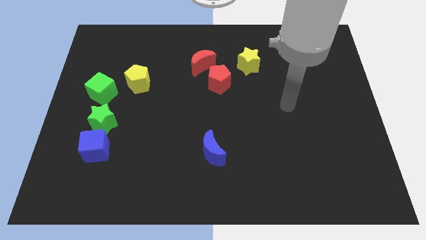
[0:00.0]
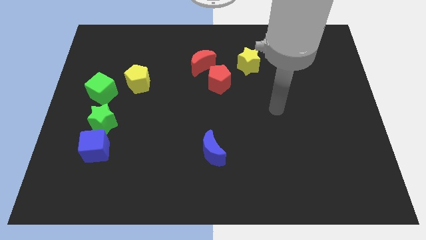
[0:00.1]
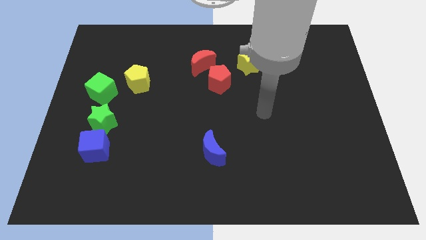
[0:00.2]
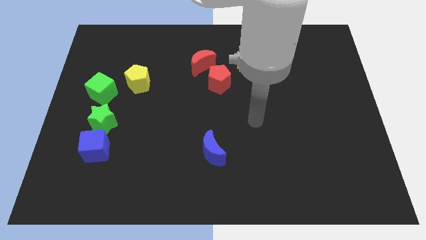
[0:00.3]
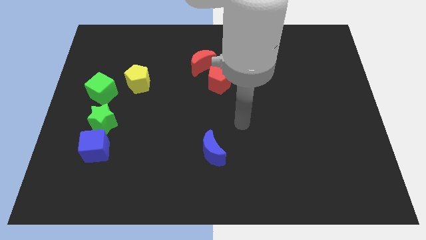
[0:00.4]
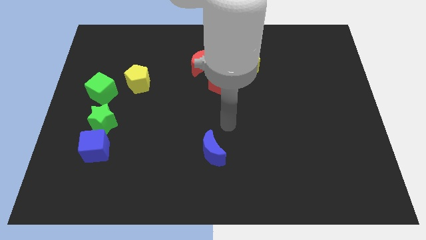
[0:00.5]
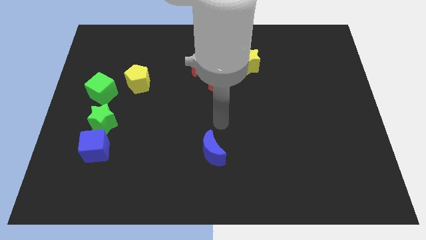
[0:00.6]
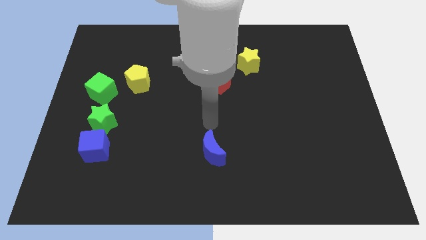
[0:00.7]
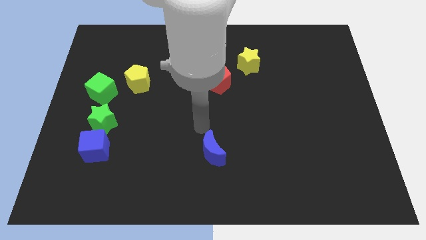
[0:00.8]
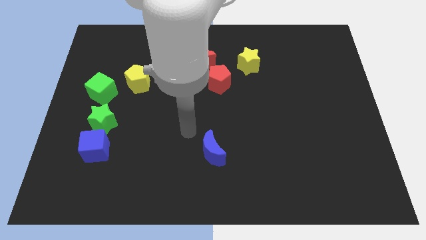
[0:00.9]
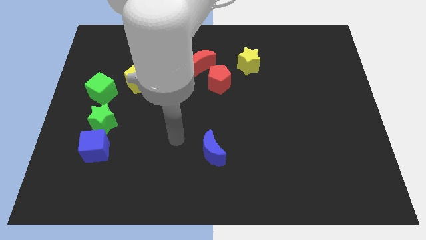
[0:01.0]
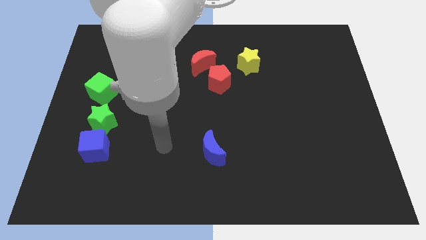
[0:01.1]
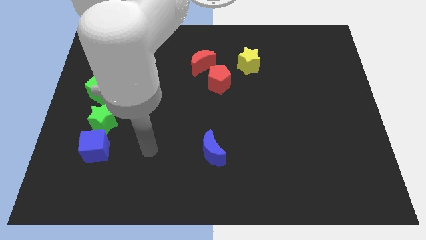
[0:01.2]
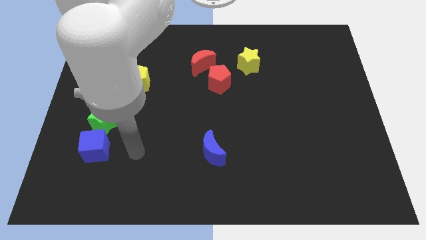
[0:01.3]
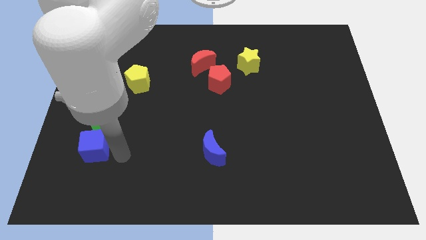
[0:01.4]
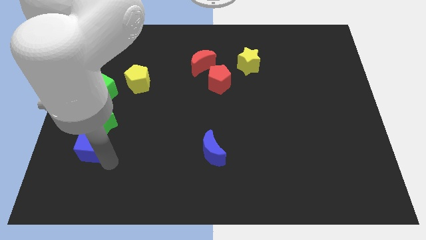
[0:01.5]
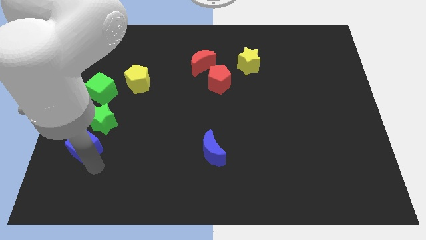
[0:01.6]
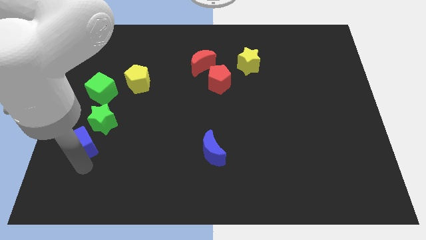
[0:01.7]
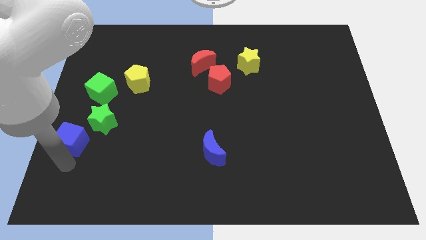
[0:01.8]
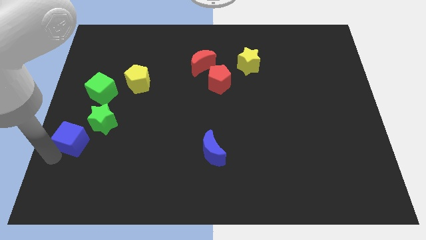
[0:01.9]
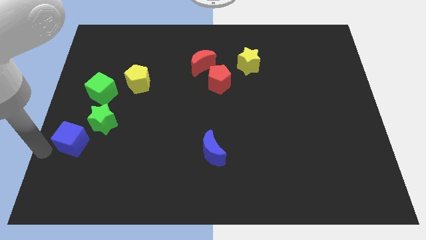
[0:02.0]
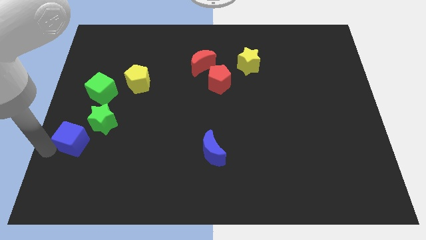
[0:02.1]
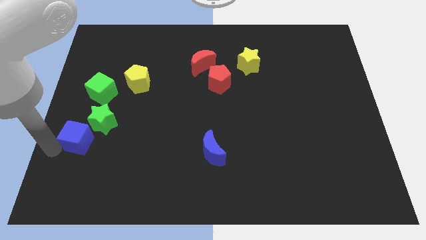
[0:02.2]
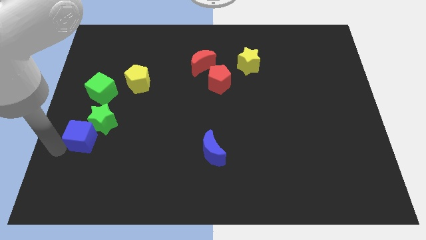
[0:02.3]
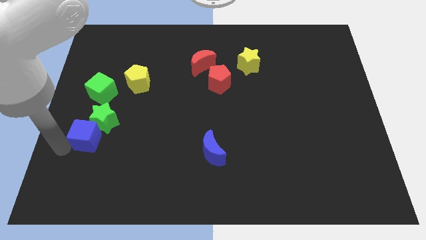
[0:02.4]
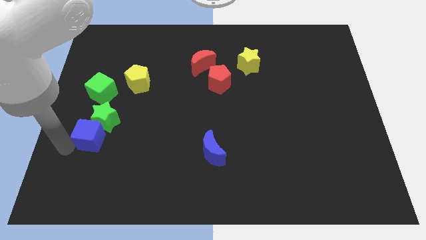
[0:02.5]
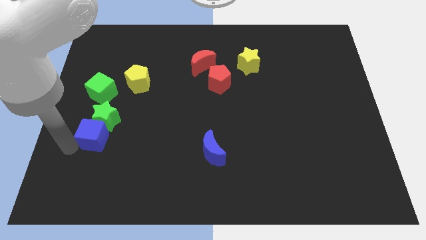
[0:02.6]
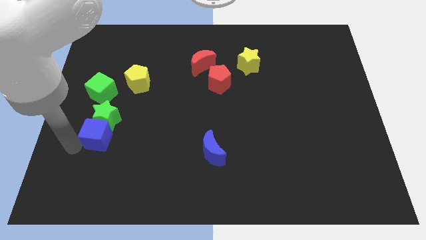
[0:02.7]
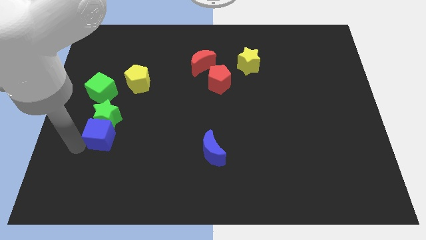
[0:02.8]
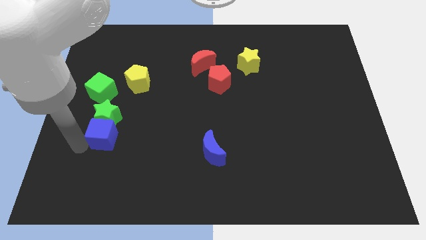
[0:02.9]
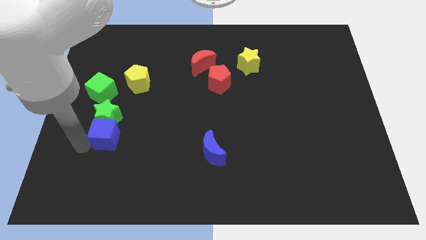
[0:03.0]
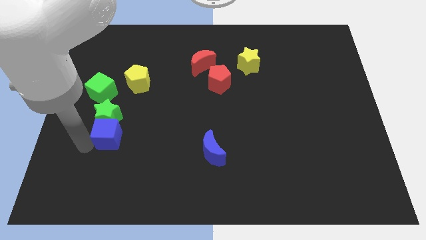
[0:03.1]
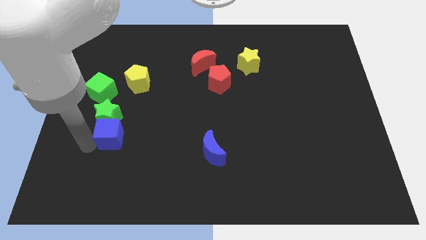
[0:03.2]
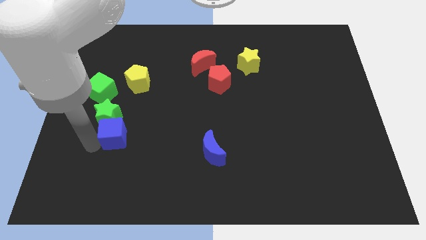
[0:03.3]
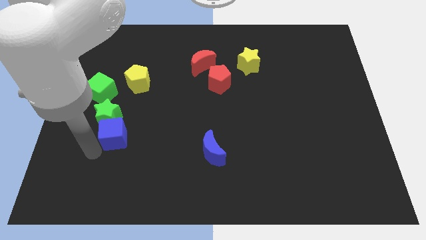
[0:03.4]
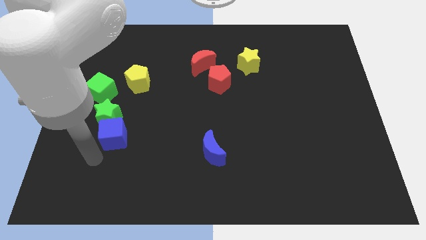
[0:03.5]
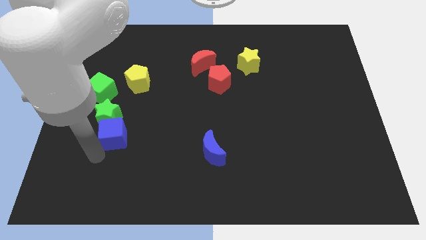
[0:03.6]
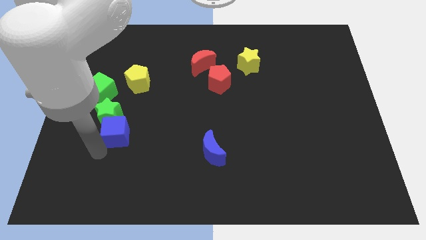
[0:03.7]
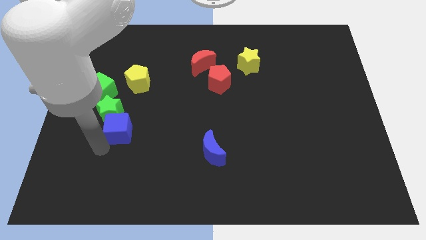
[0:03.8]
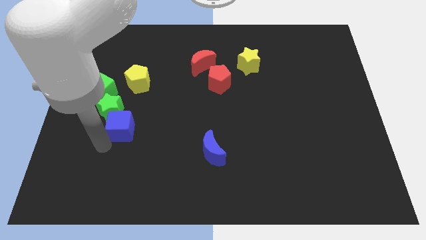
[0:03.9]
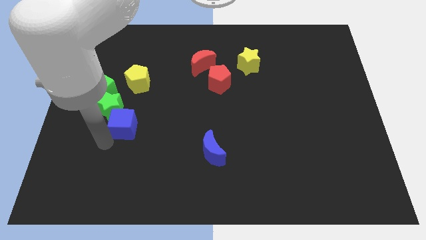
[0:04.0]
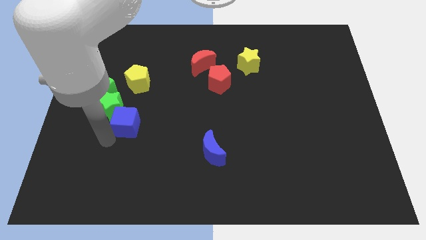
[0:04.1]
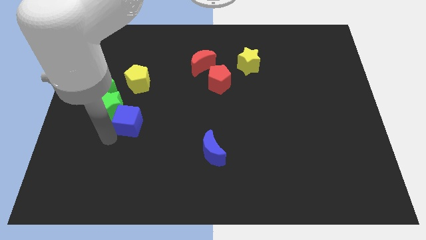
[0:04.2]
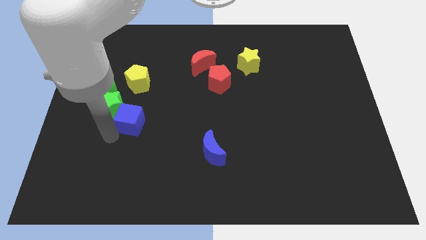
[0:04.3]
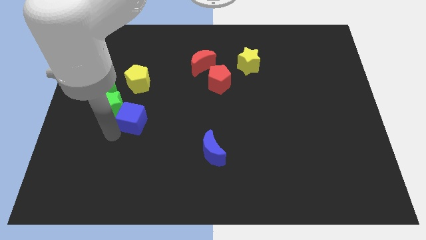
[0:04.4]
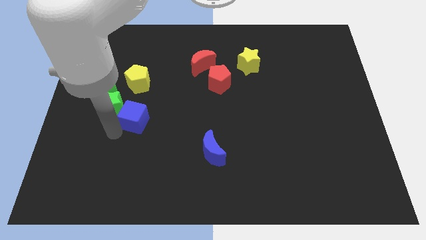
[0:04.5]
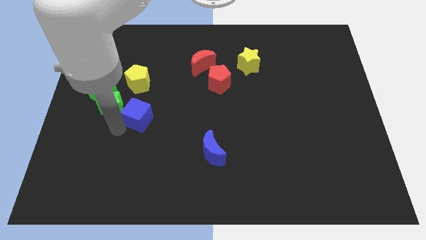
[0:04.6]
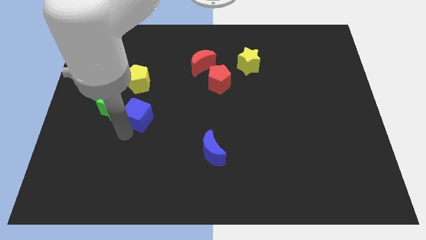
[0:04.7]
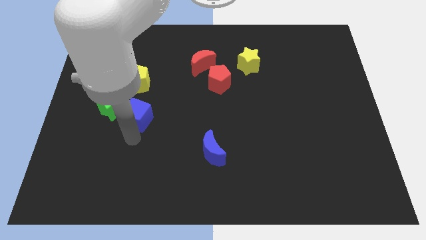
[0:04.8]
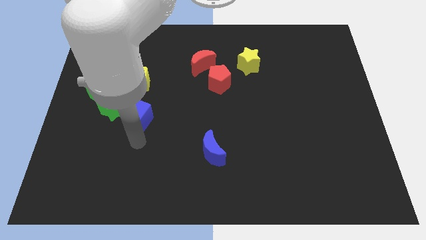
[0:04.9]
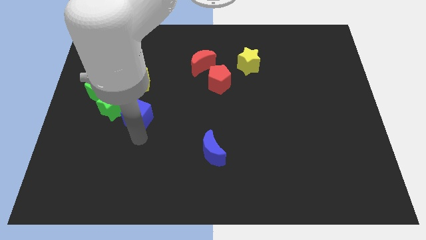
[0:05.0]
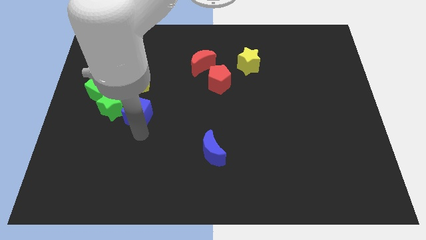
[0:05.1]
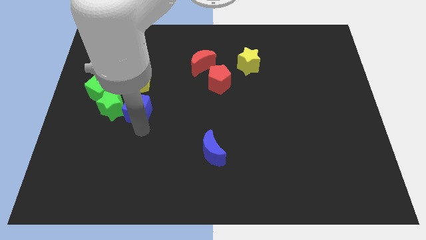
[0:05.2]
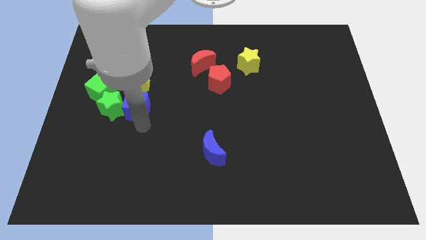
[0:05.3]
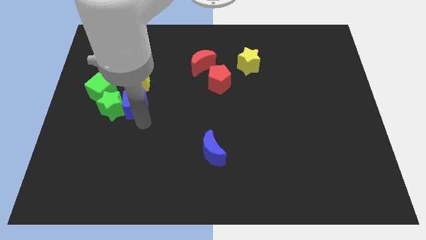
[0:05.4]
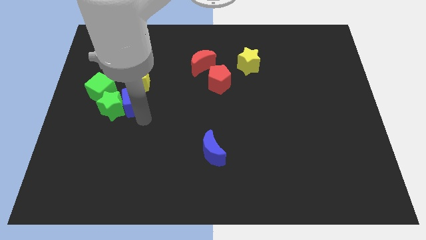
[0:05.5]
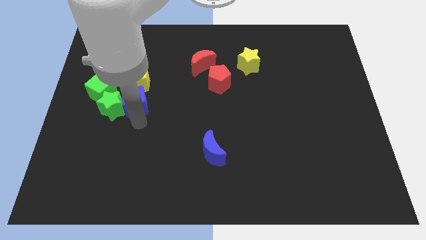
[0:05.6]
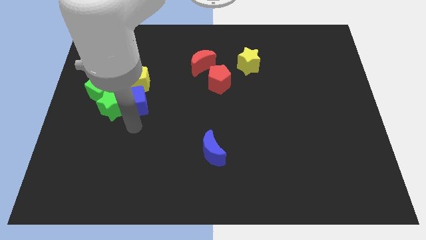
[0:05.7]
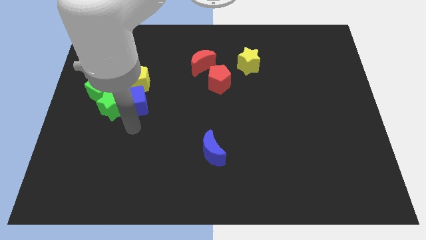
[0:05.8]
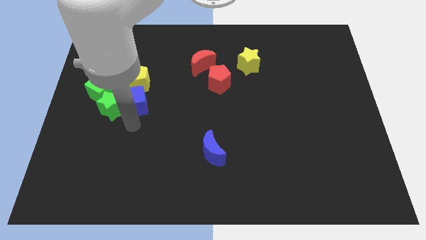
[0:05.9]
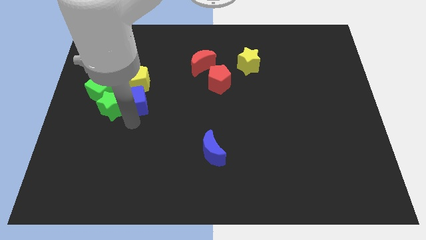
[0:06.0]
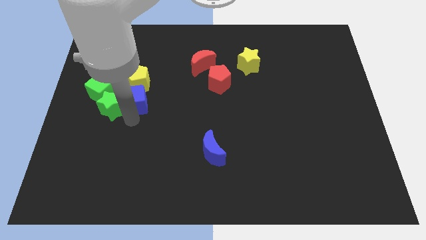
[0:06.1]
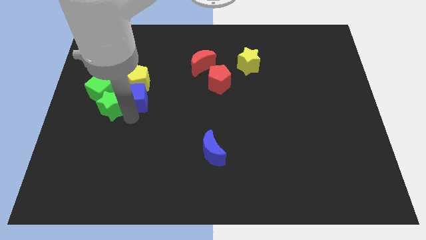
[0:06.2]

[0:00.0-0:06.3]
move the blue cube to the yellow pentagon
